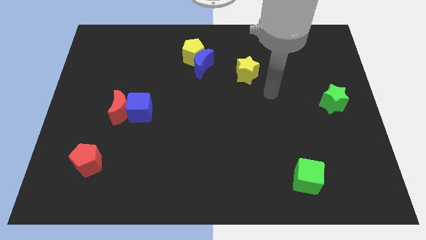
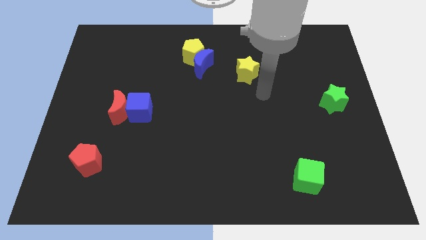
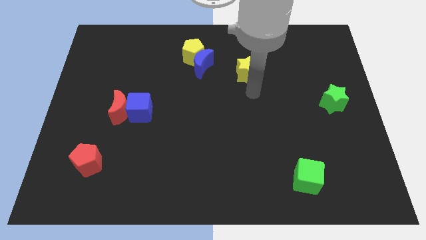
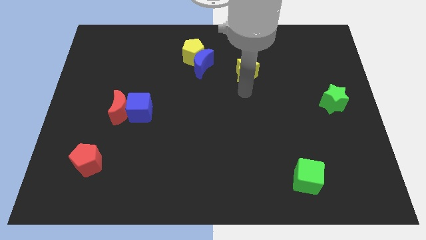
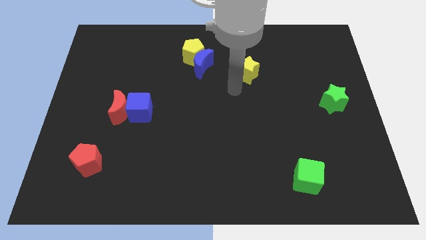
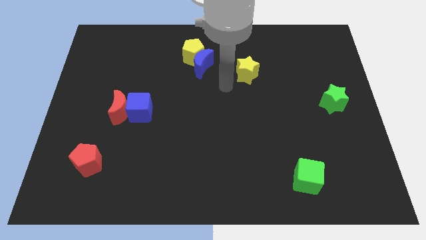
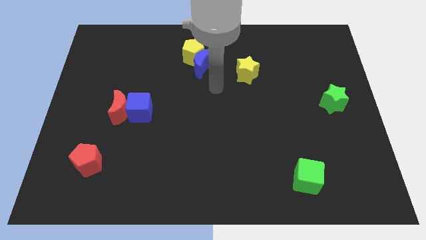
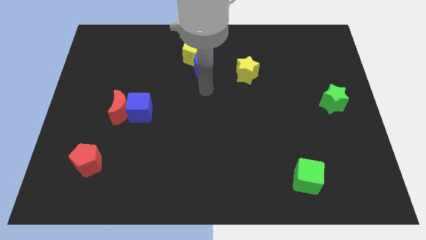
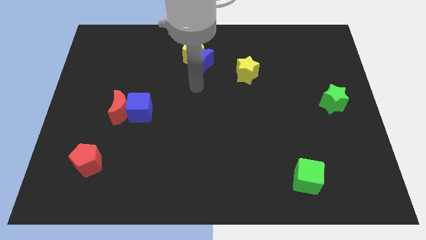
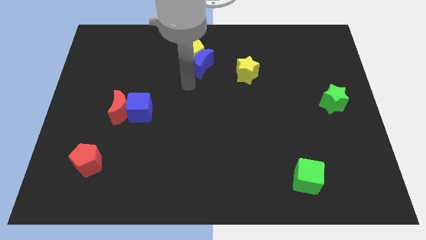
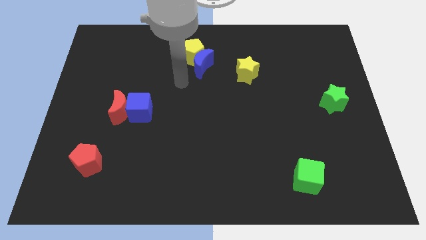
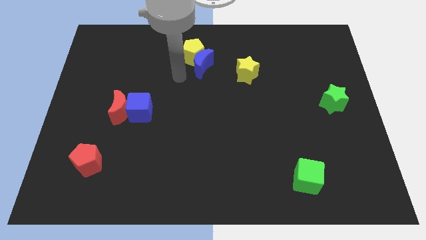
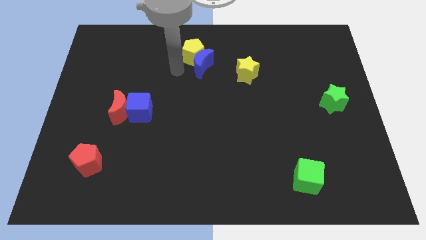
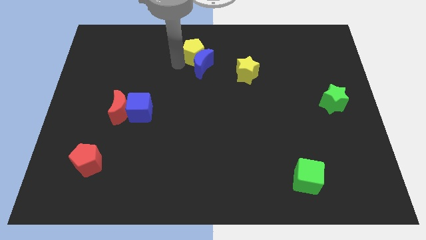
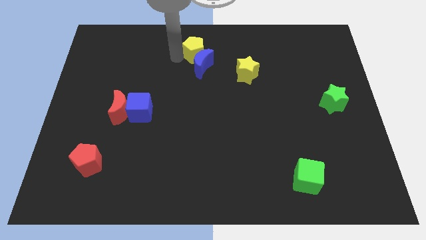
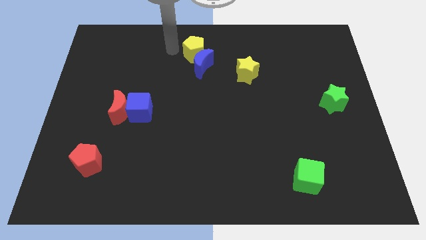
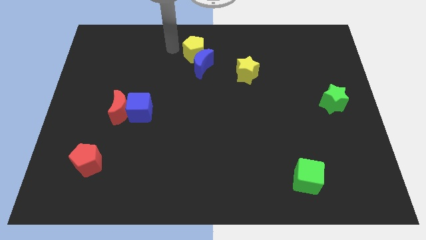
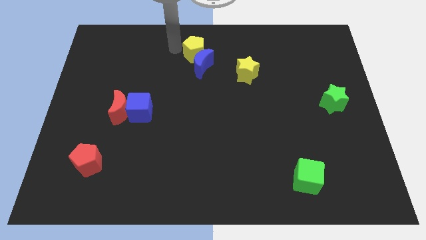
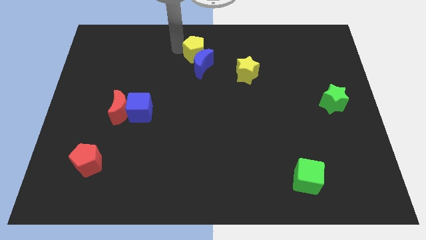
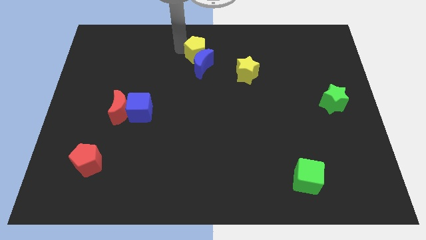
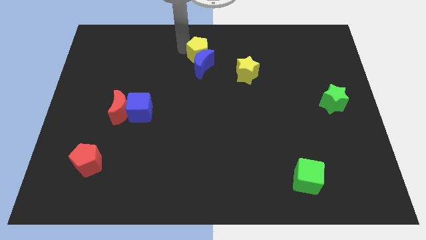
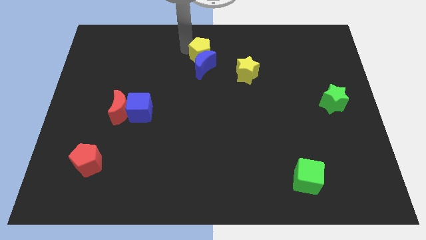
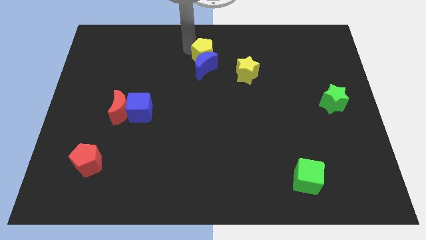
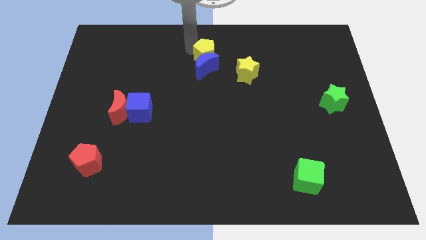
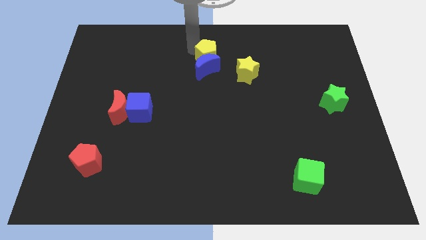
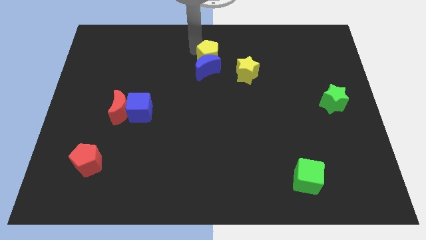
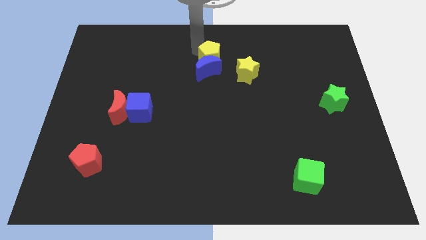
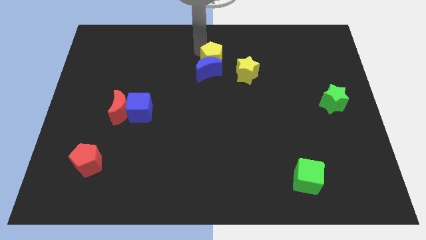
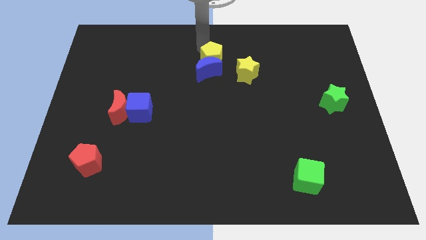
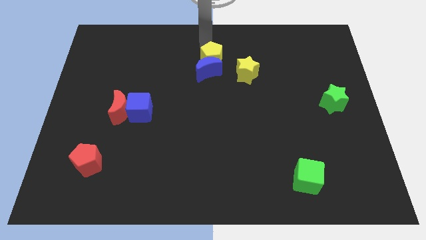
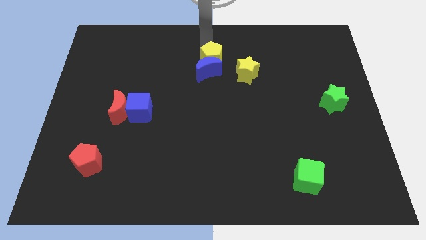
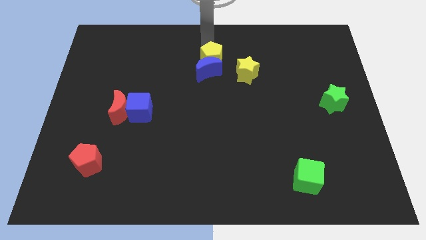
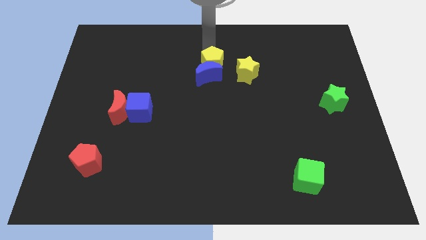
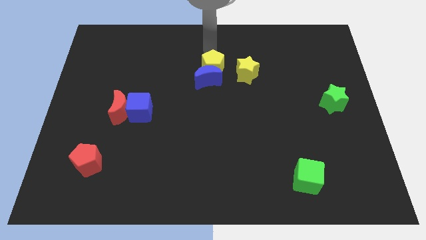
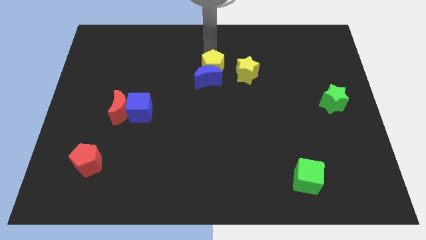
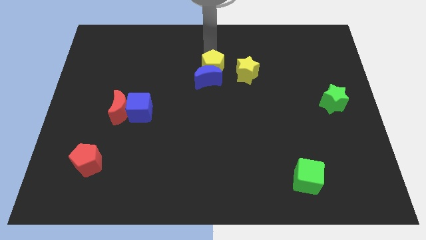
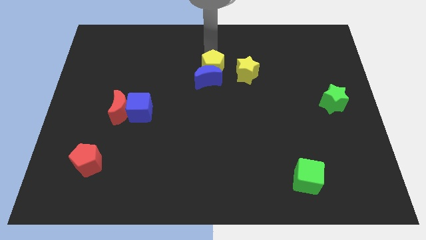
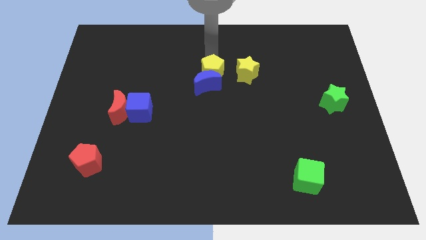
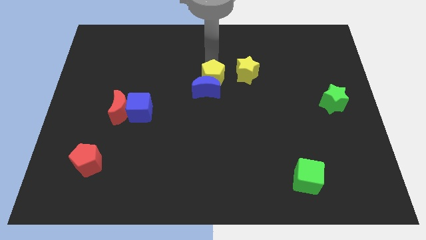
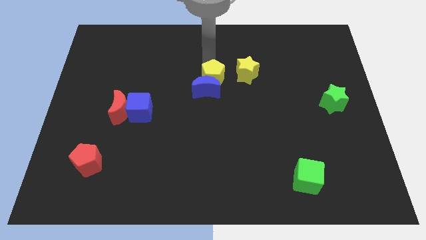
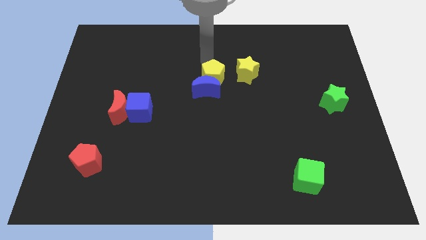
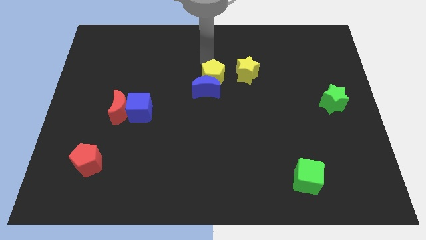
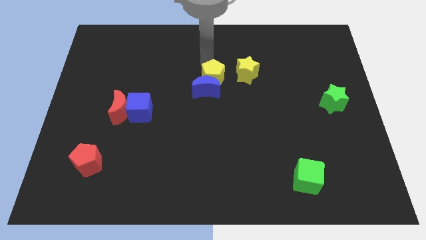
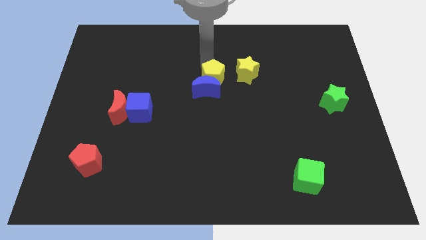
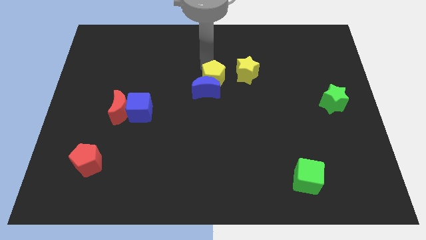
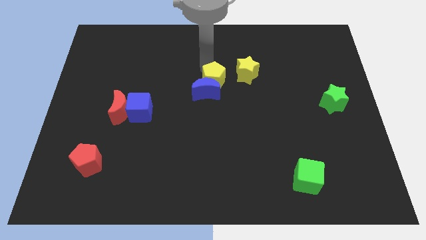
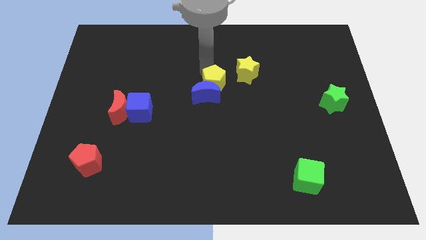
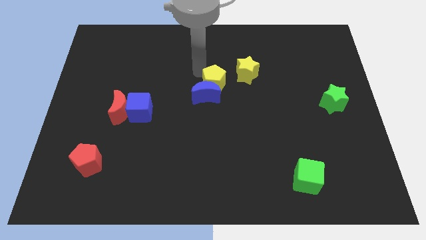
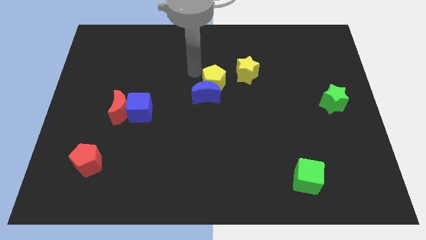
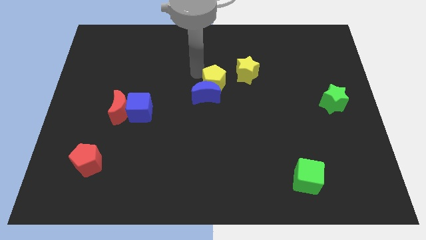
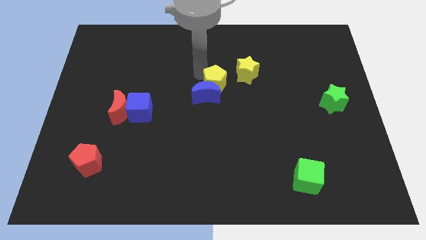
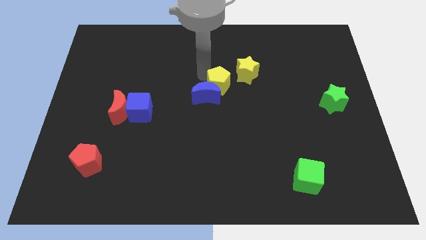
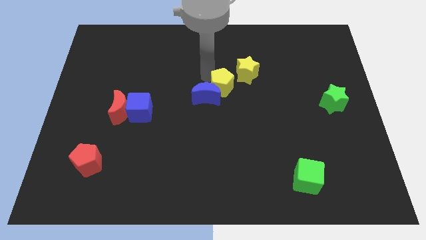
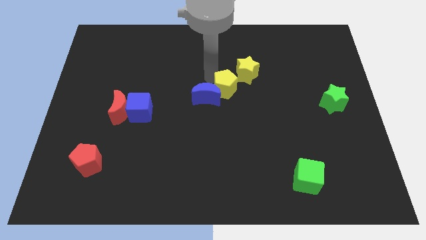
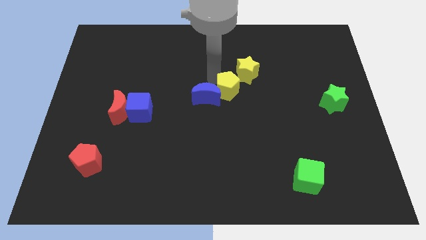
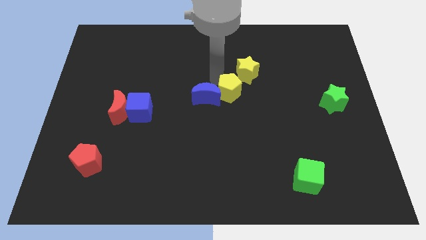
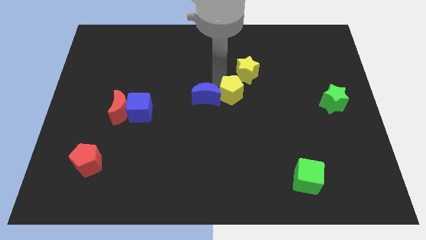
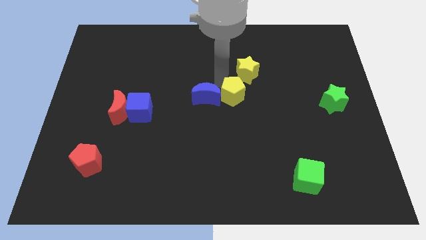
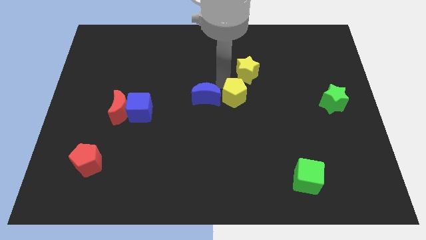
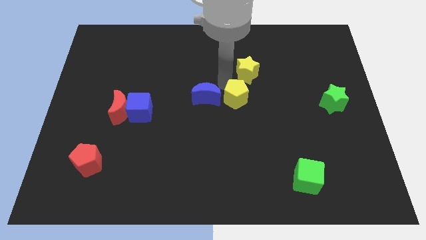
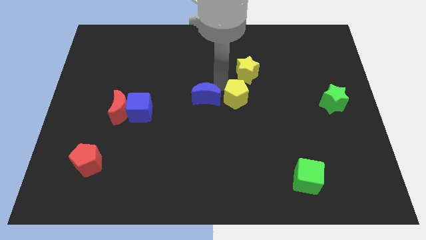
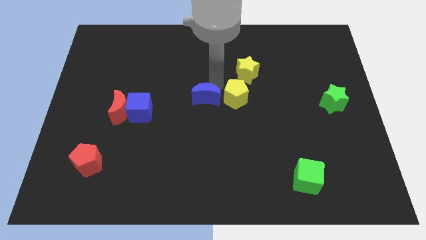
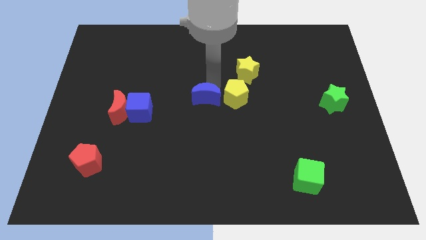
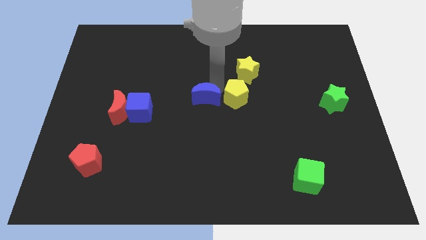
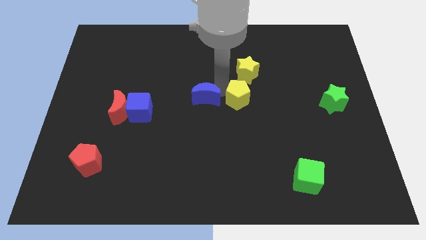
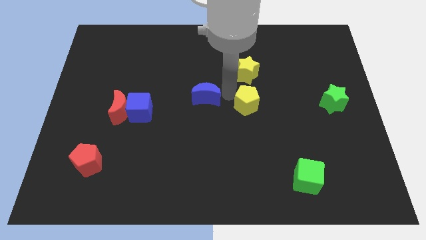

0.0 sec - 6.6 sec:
move the yellow pentagon diagonally downwards and to the right

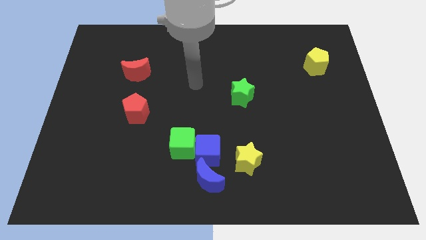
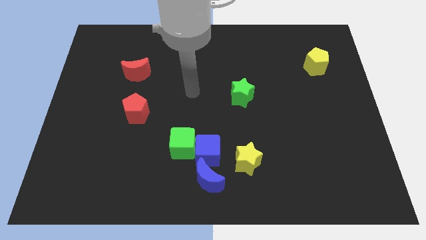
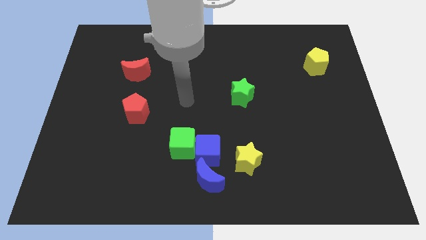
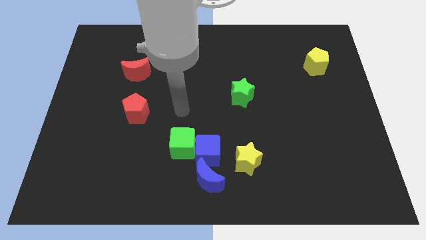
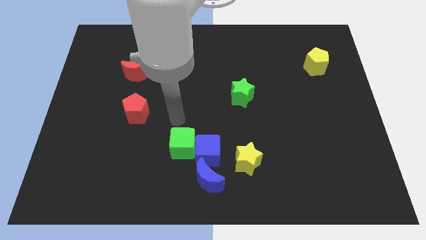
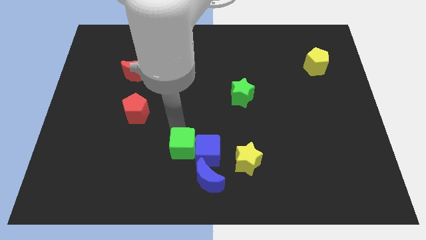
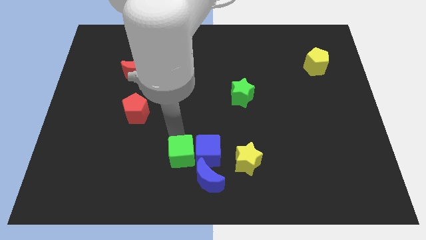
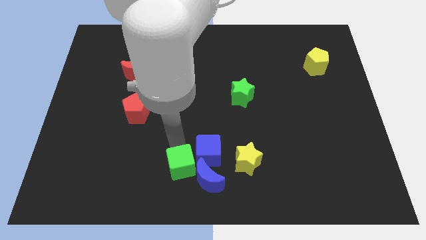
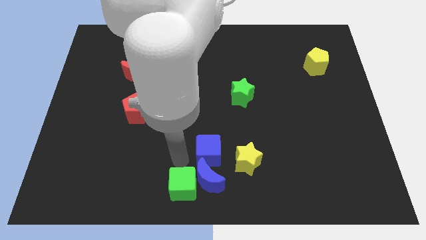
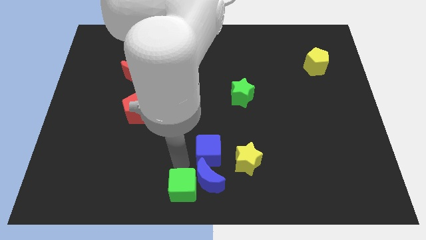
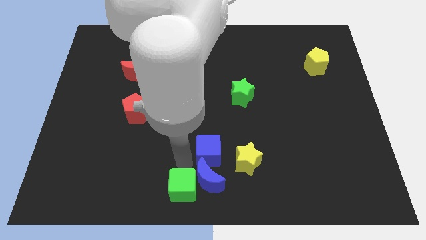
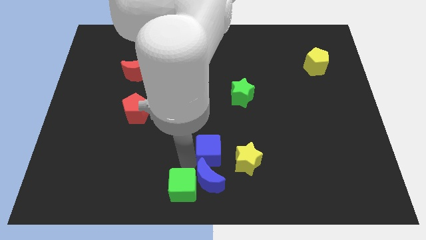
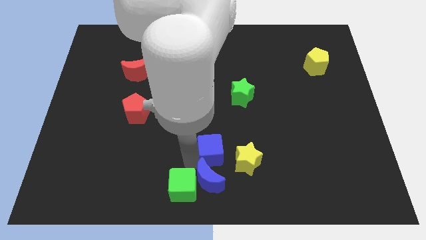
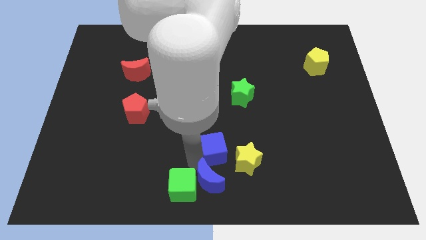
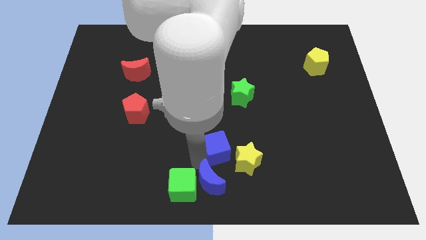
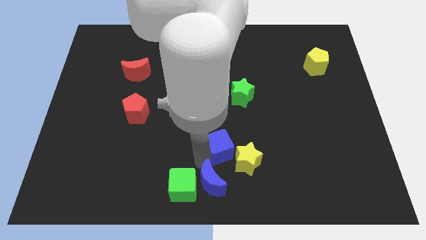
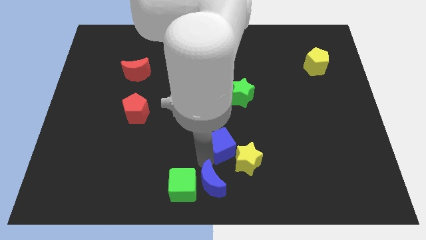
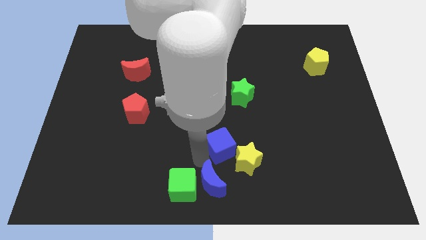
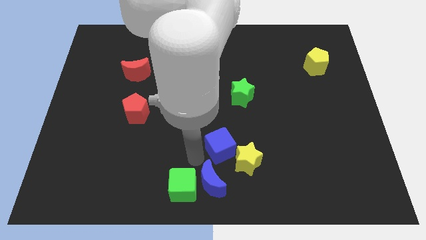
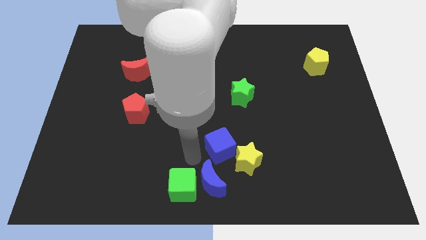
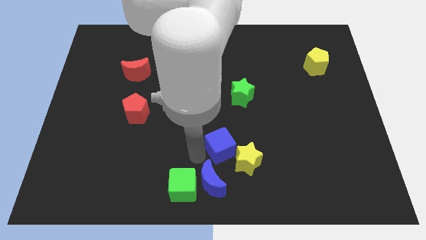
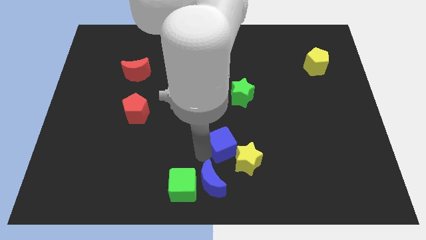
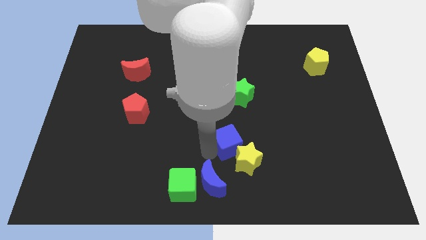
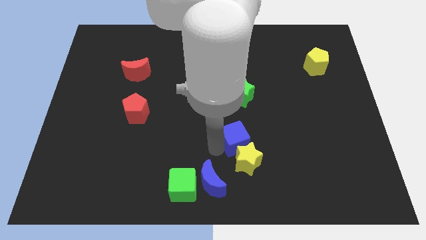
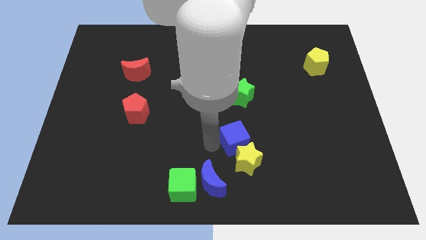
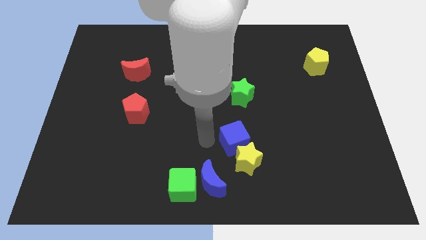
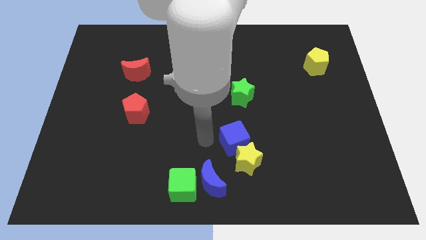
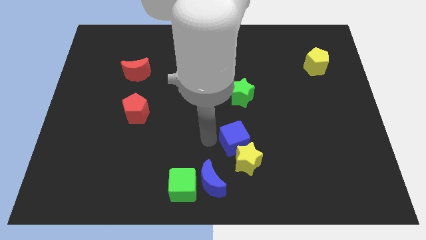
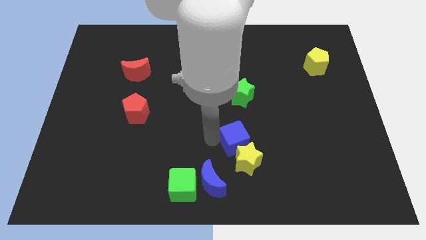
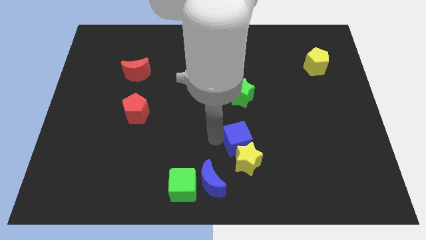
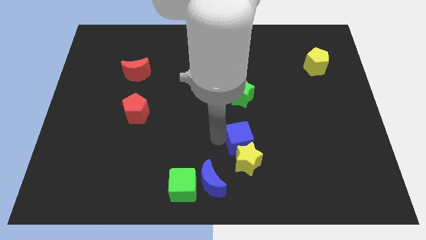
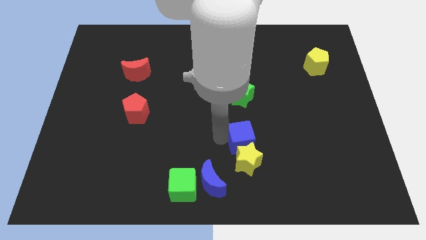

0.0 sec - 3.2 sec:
push the blue cube to the right a bit
